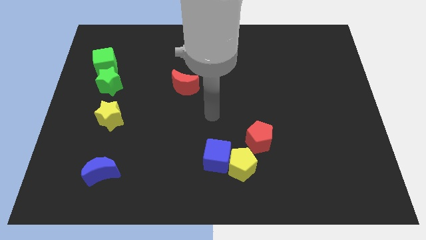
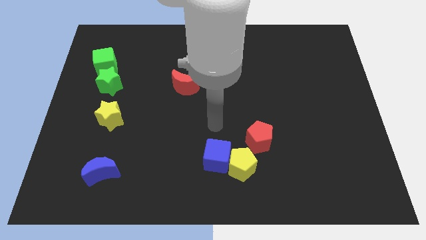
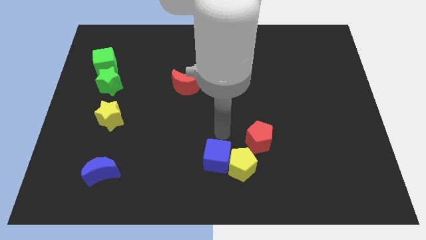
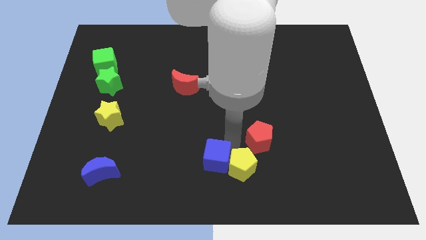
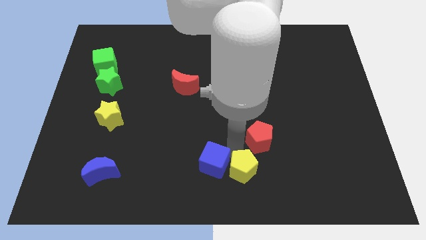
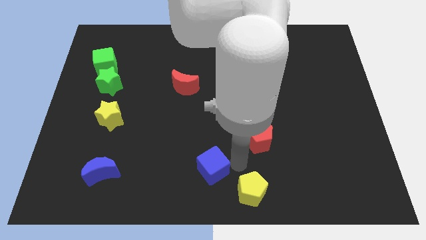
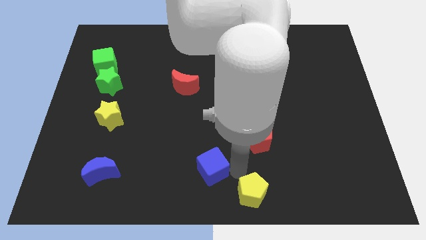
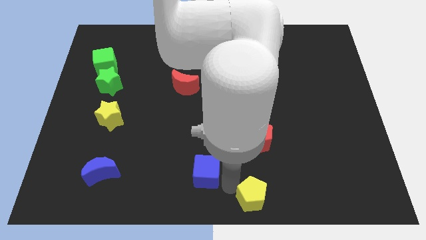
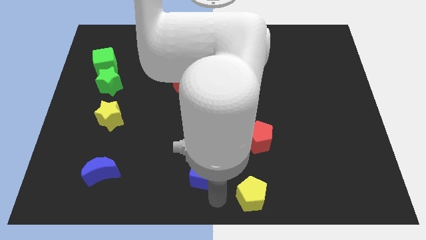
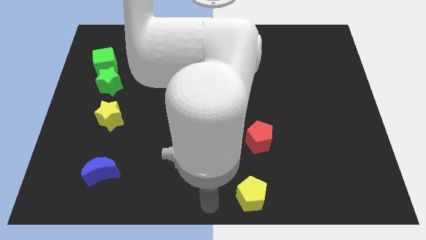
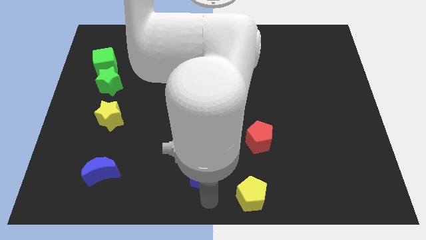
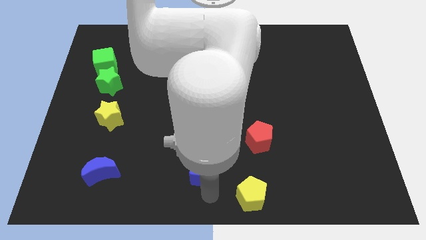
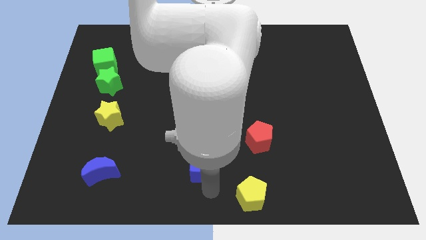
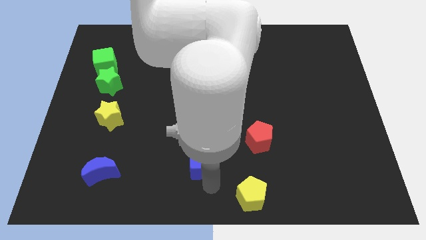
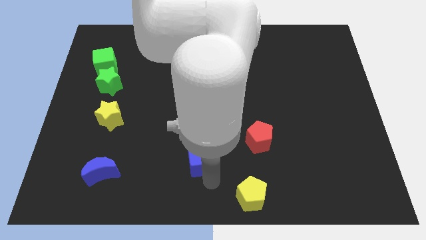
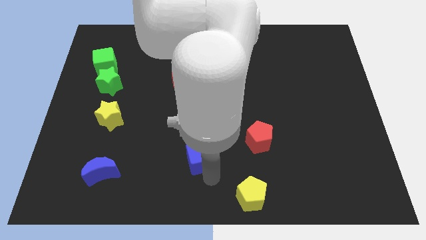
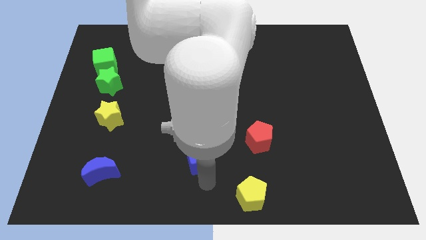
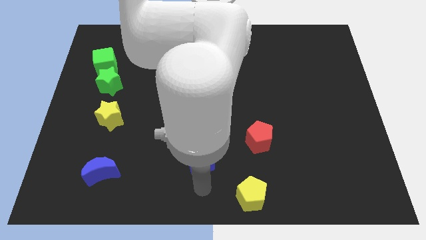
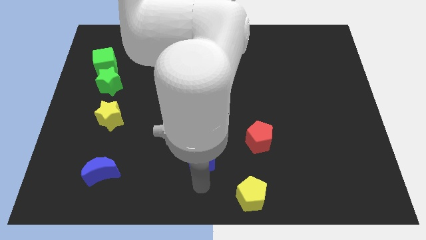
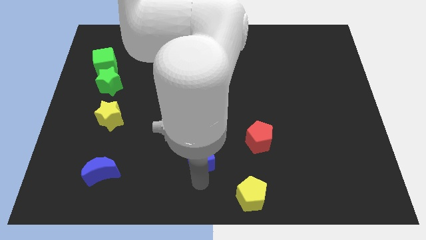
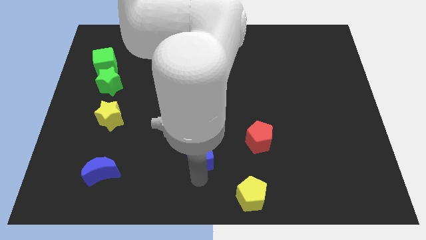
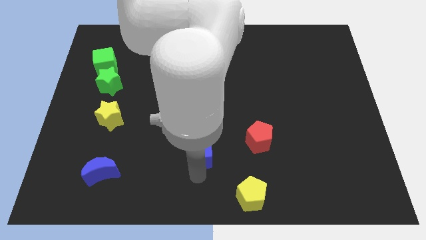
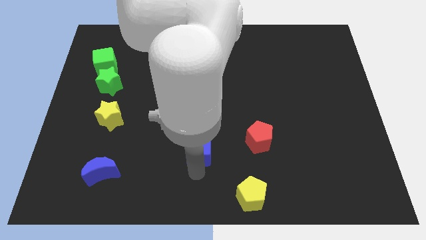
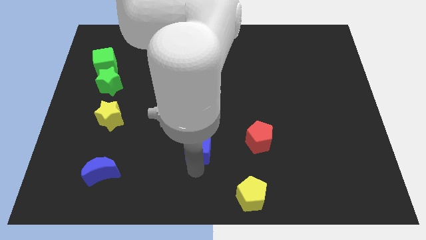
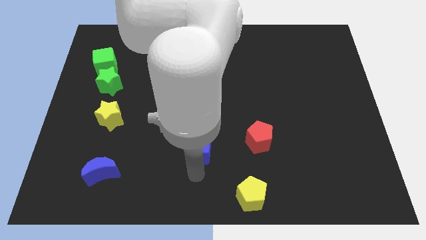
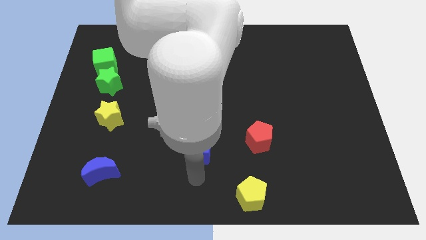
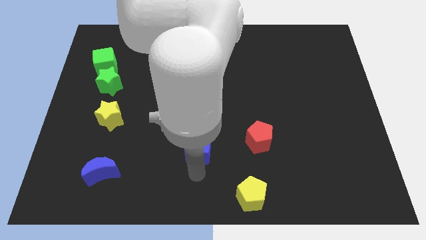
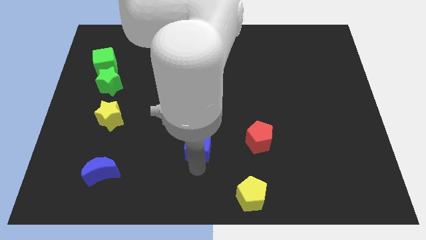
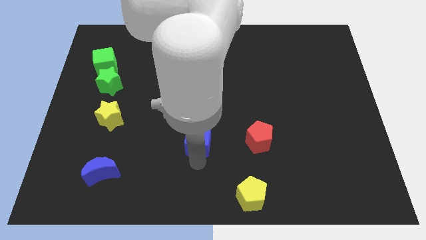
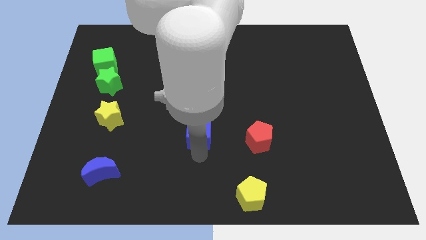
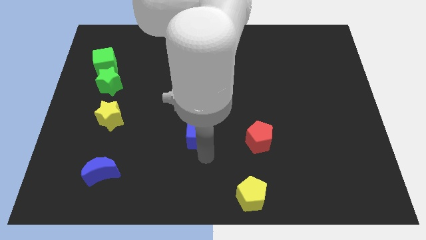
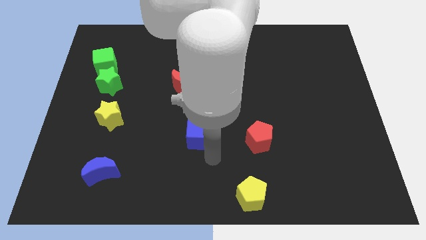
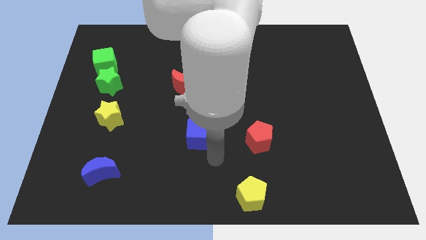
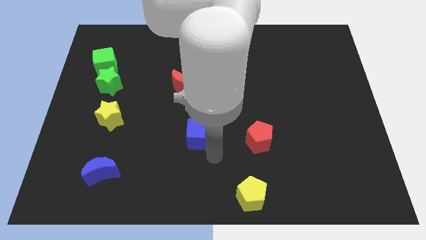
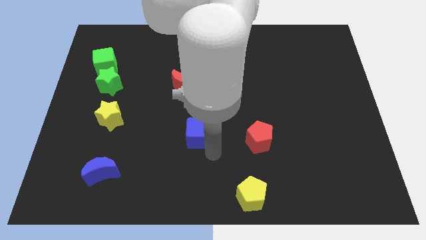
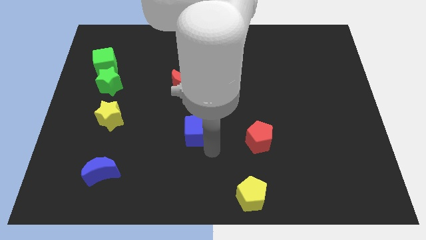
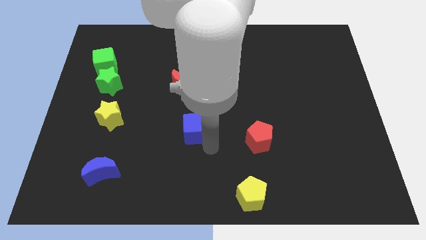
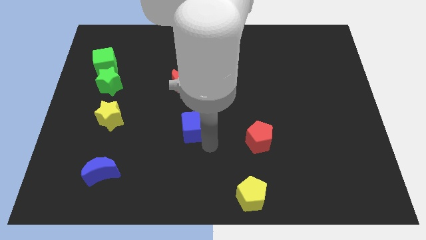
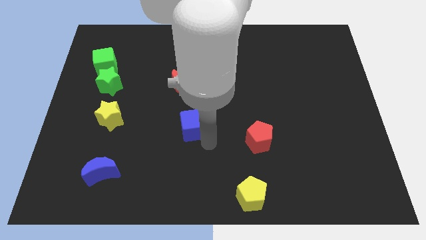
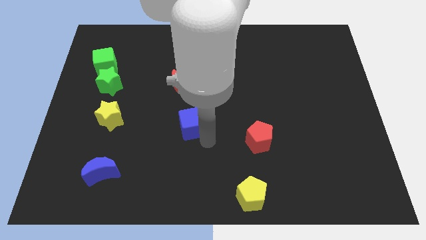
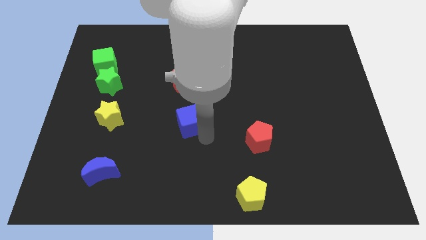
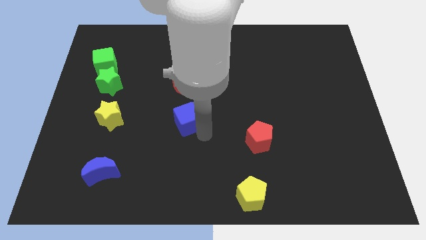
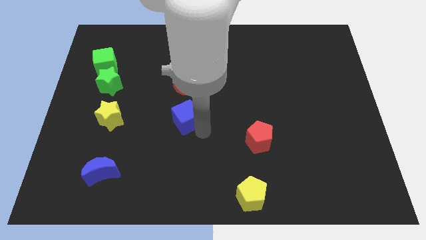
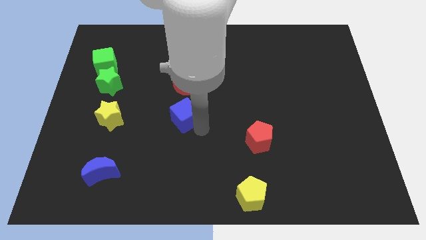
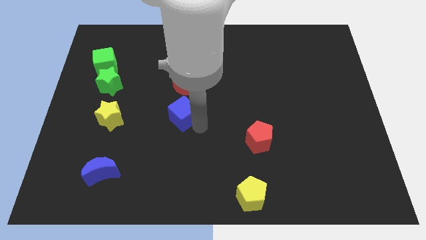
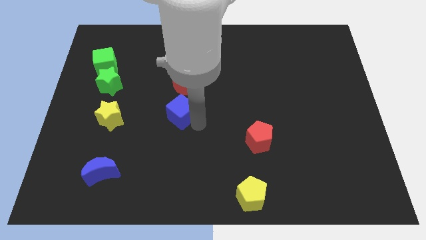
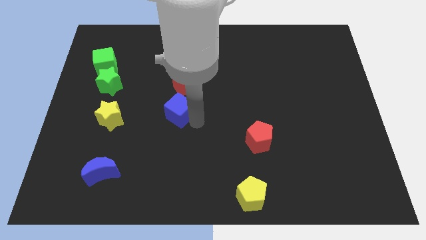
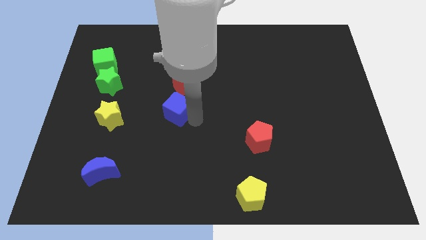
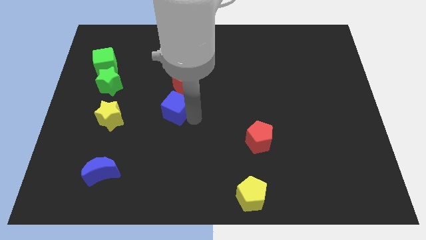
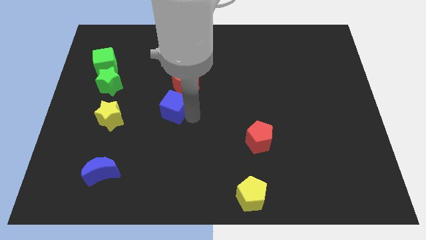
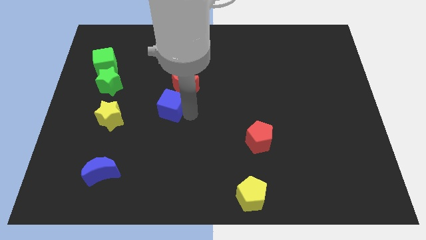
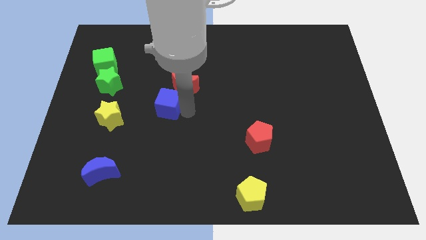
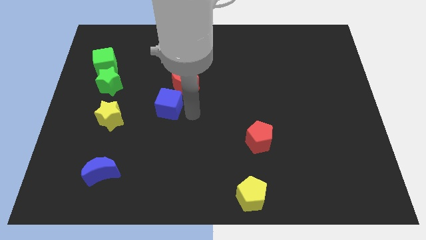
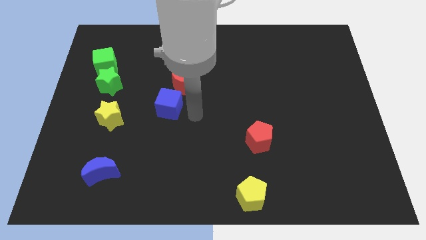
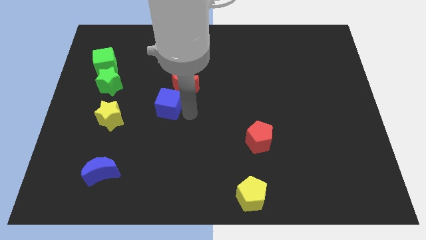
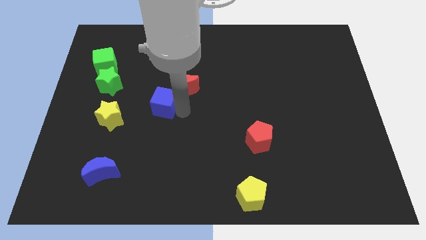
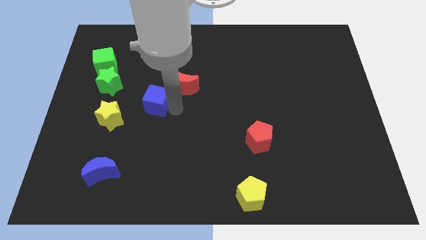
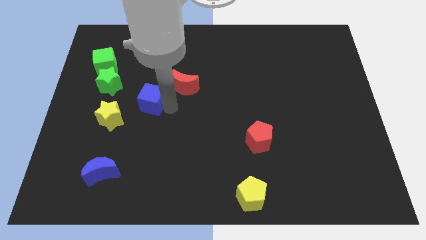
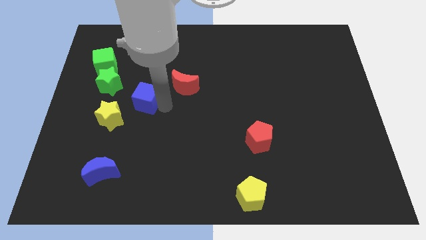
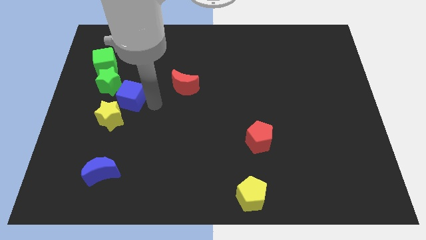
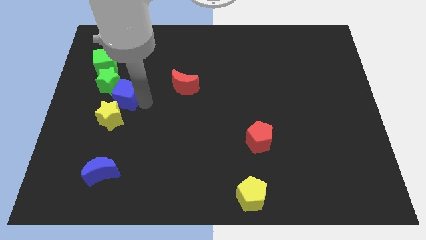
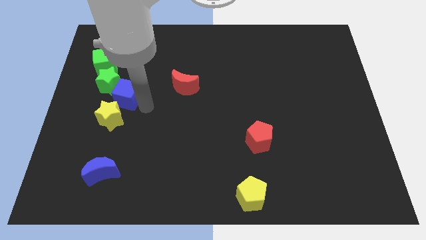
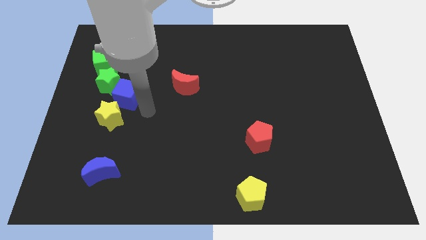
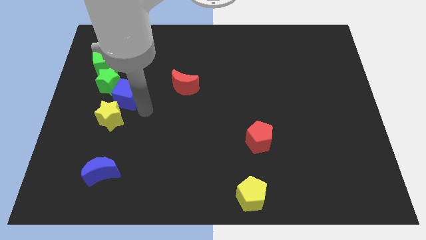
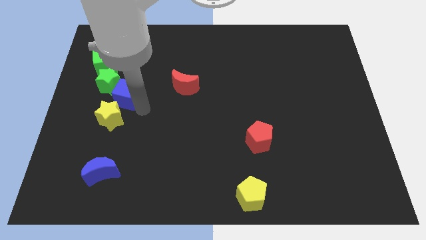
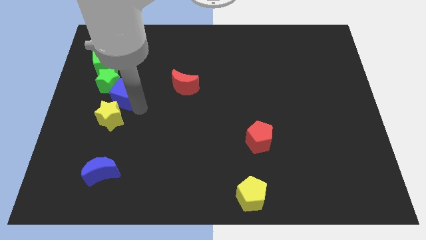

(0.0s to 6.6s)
slide the blue cube close to the green star
